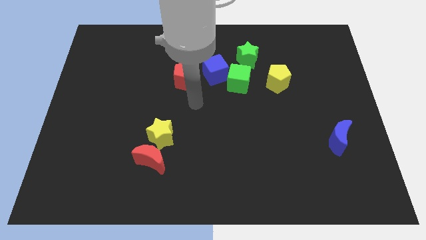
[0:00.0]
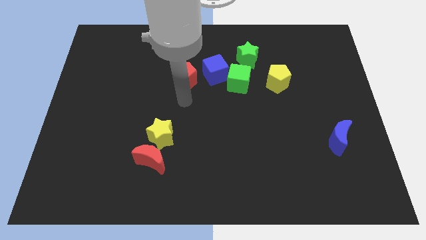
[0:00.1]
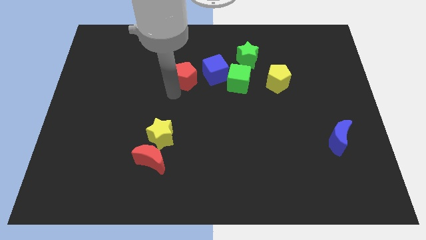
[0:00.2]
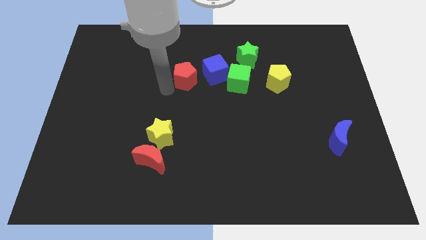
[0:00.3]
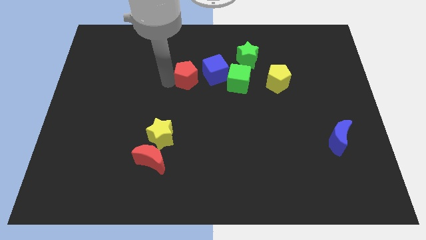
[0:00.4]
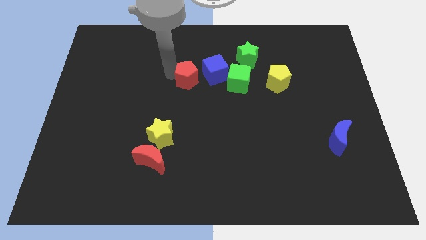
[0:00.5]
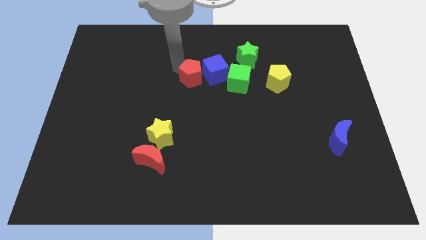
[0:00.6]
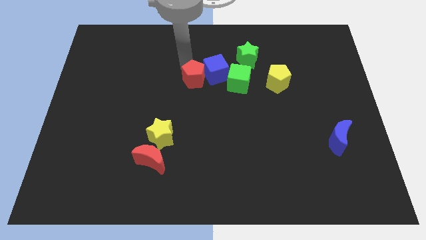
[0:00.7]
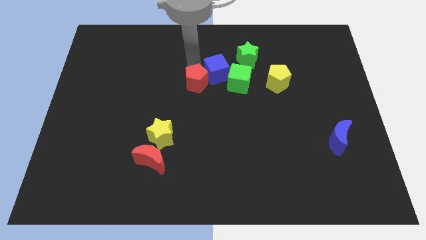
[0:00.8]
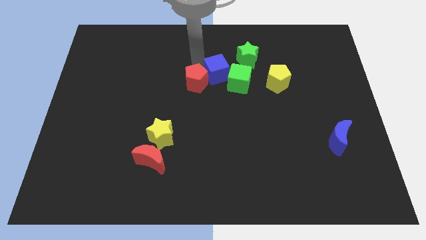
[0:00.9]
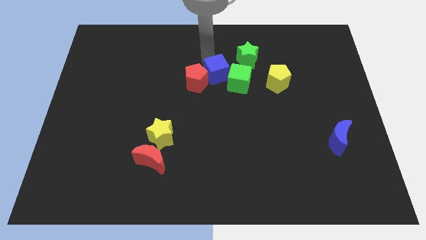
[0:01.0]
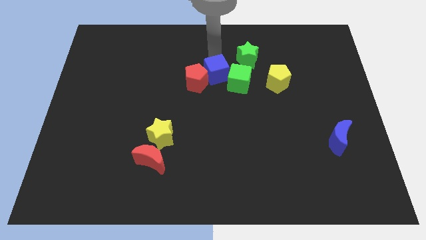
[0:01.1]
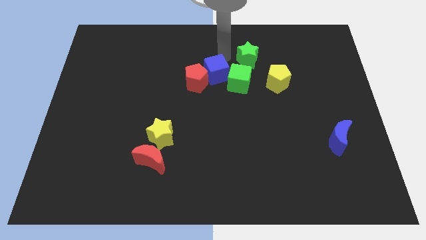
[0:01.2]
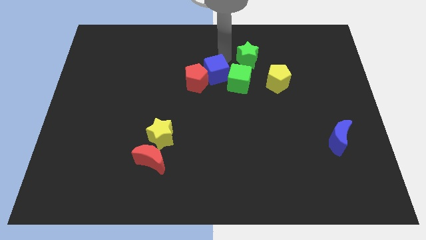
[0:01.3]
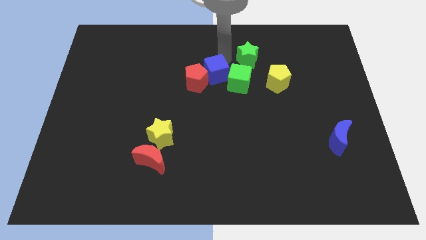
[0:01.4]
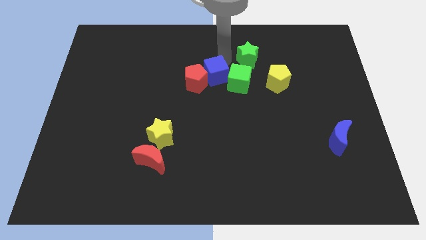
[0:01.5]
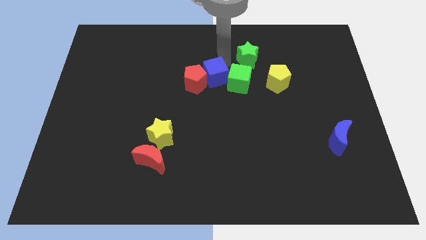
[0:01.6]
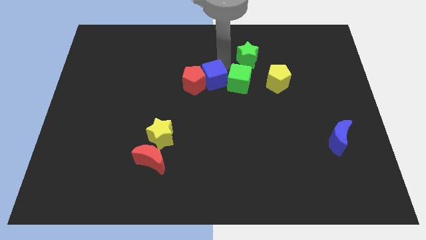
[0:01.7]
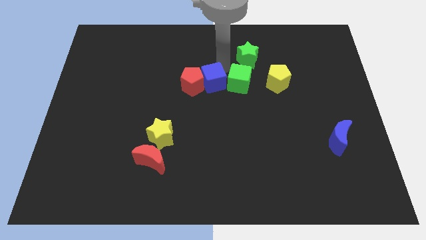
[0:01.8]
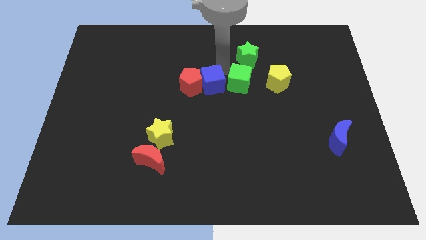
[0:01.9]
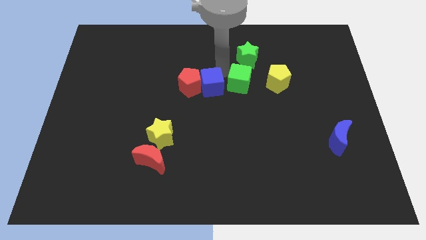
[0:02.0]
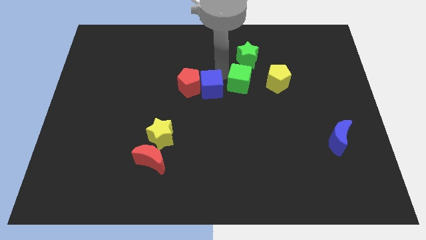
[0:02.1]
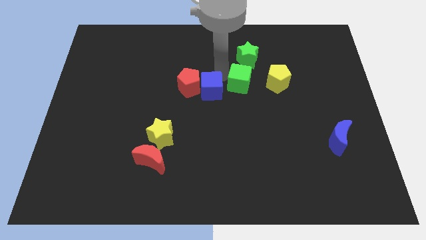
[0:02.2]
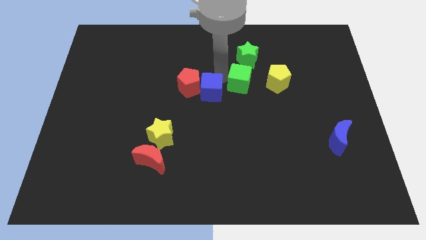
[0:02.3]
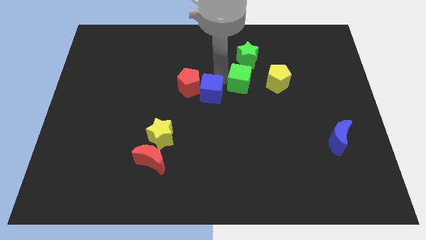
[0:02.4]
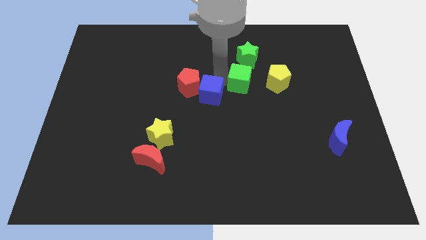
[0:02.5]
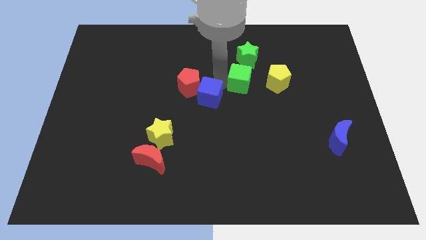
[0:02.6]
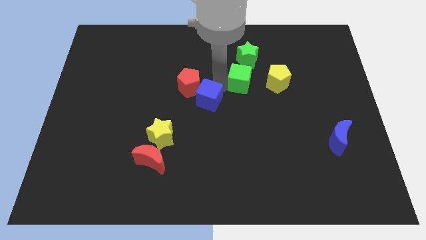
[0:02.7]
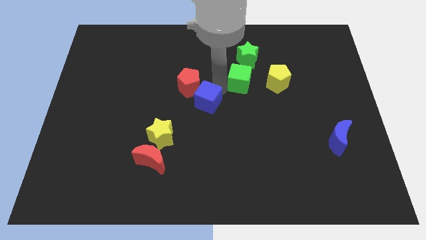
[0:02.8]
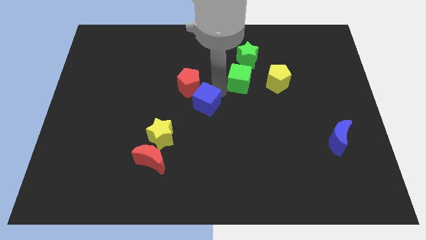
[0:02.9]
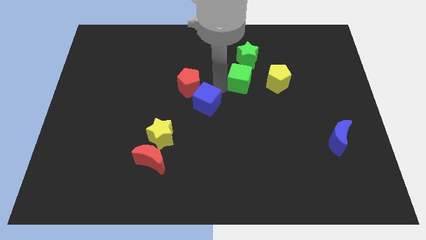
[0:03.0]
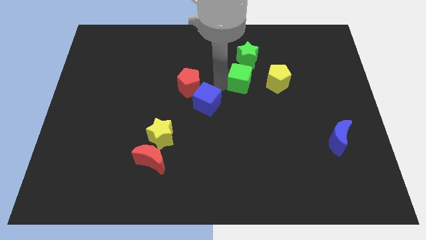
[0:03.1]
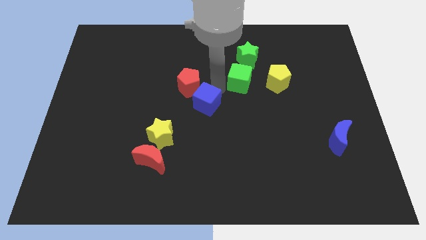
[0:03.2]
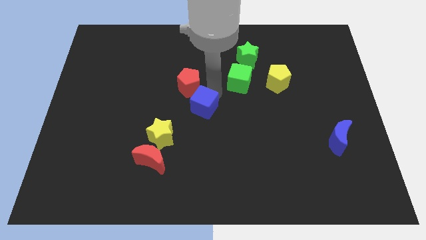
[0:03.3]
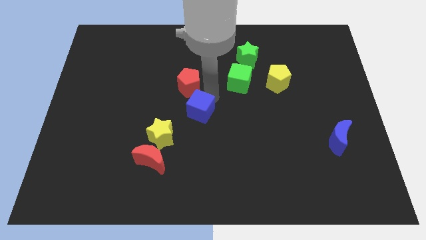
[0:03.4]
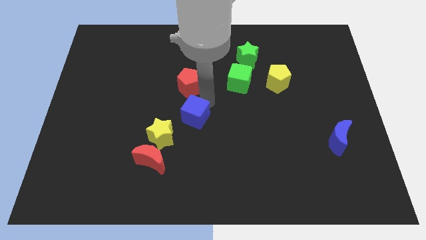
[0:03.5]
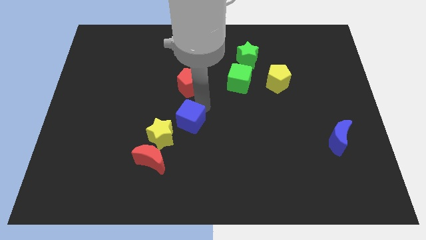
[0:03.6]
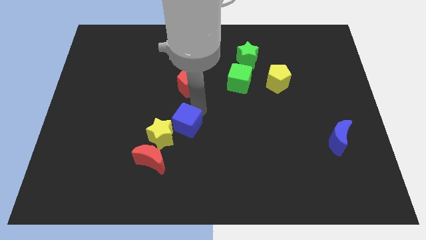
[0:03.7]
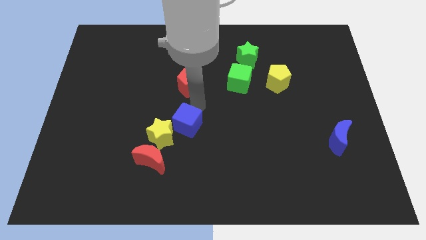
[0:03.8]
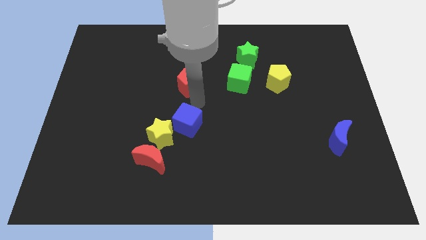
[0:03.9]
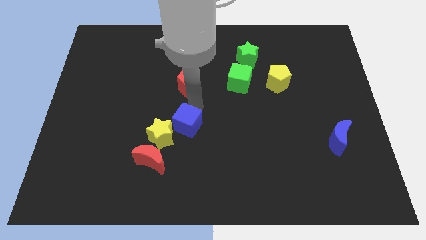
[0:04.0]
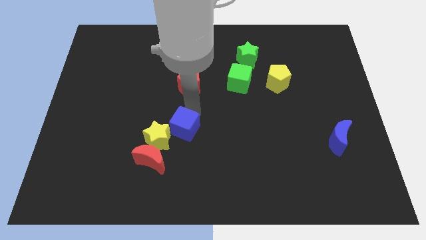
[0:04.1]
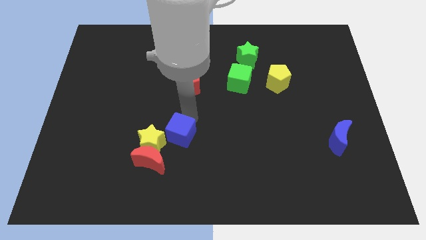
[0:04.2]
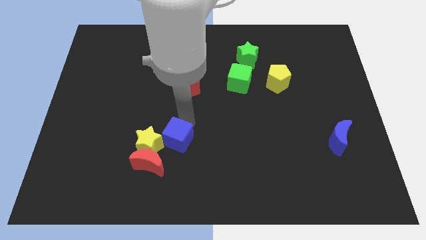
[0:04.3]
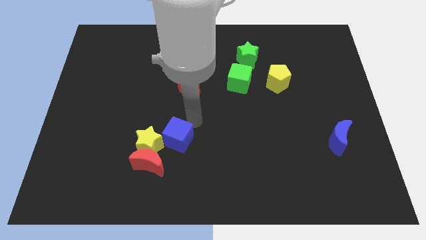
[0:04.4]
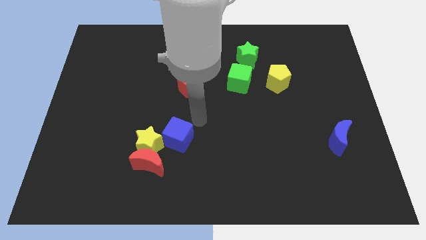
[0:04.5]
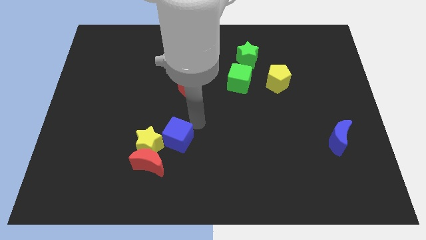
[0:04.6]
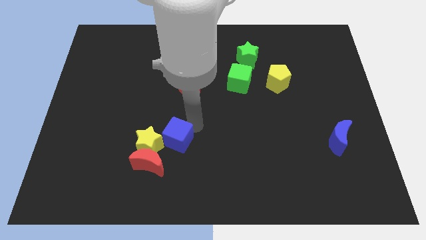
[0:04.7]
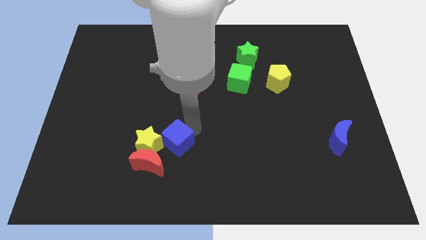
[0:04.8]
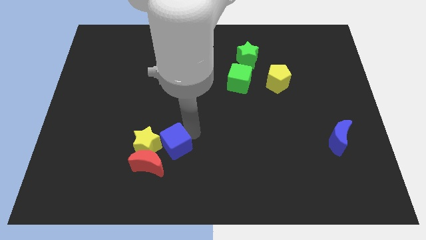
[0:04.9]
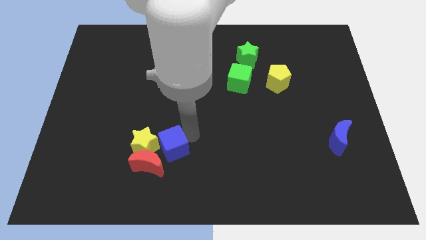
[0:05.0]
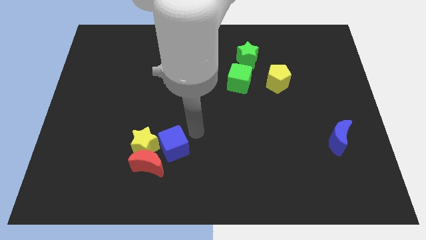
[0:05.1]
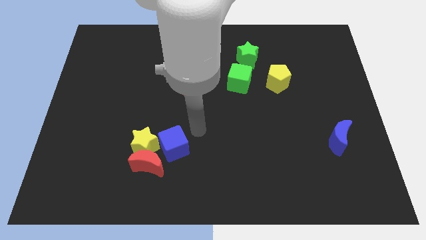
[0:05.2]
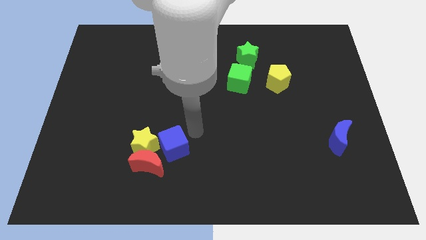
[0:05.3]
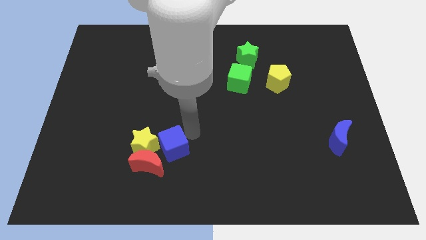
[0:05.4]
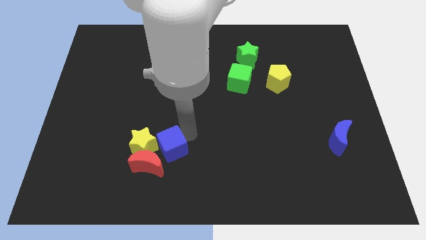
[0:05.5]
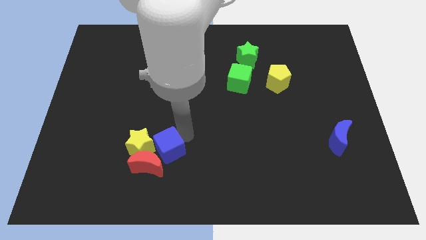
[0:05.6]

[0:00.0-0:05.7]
slide the blue cube next to the red moon

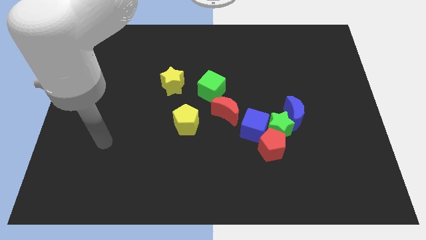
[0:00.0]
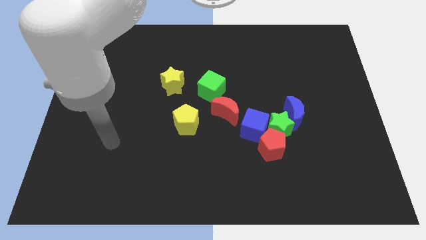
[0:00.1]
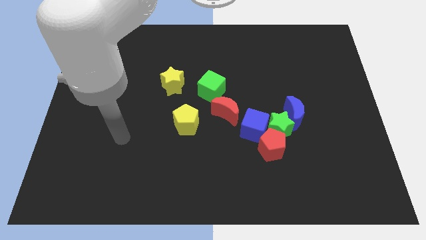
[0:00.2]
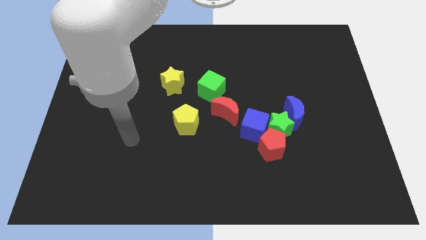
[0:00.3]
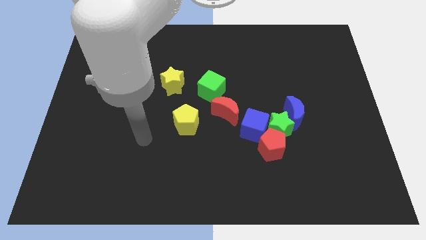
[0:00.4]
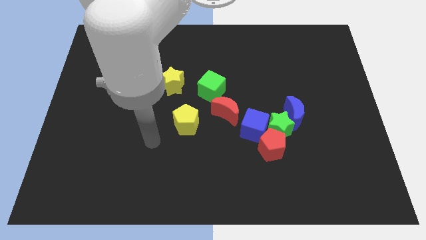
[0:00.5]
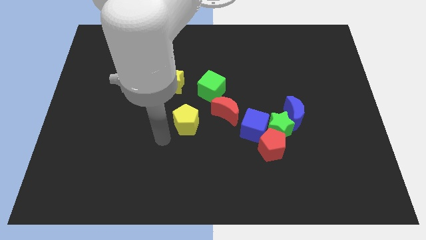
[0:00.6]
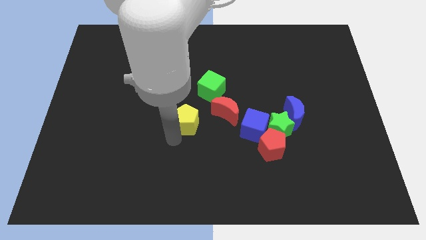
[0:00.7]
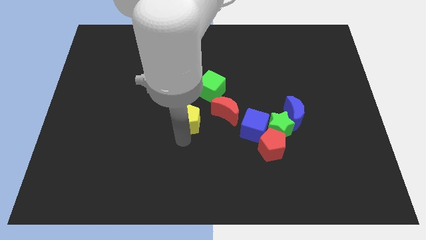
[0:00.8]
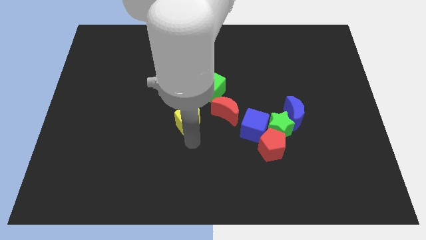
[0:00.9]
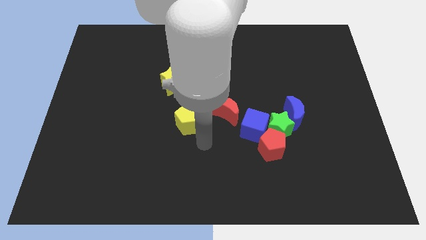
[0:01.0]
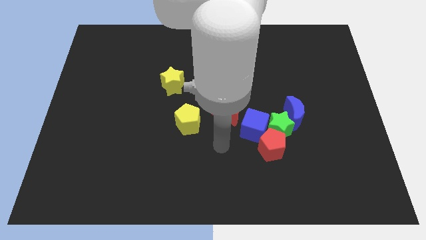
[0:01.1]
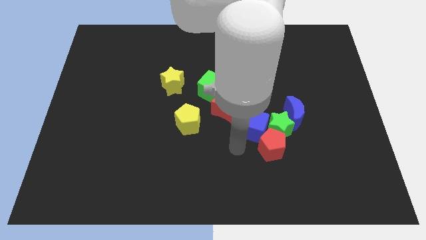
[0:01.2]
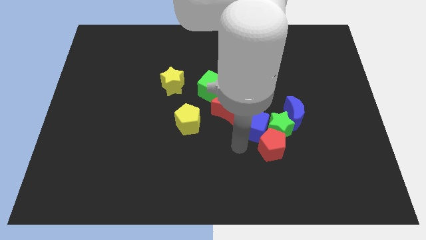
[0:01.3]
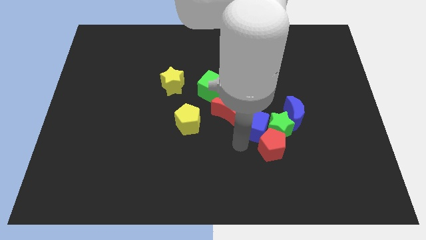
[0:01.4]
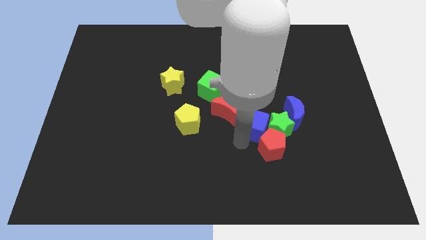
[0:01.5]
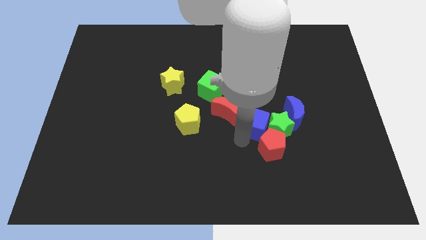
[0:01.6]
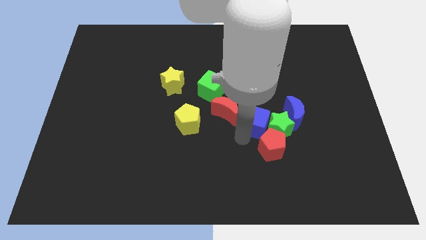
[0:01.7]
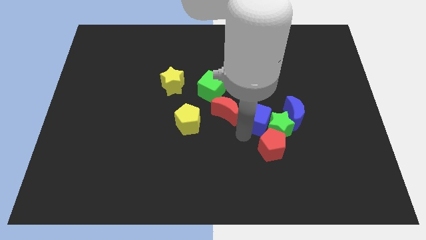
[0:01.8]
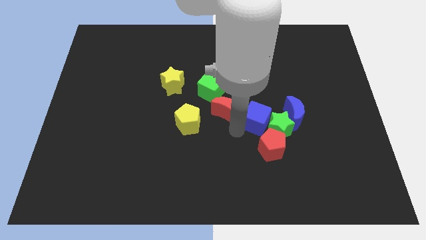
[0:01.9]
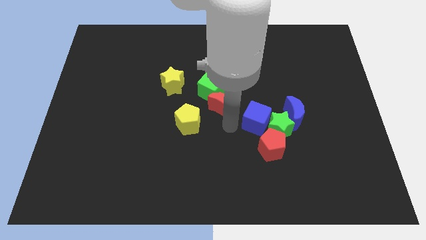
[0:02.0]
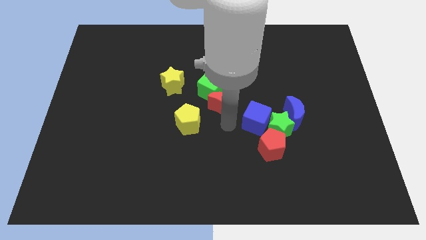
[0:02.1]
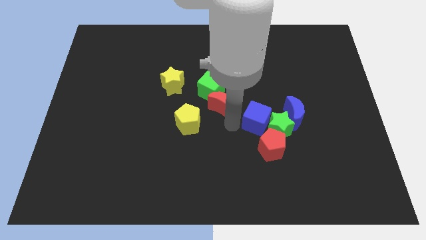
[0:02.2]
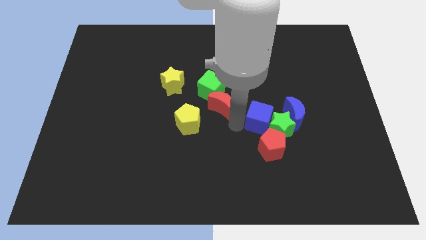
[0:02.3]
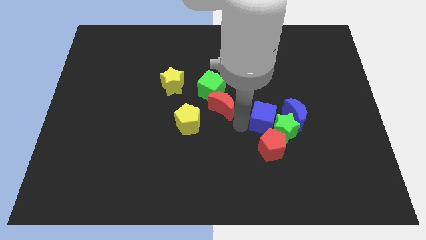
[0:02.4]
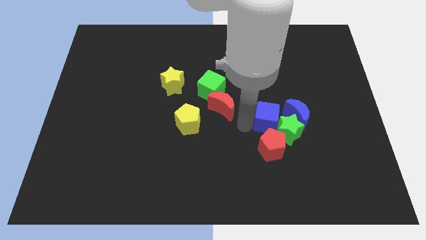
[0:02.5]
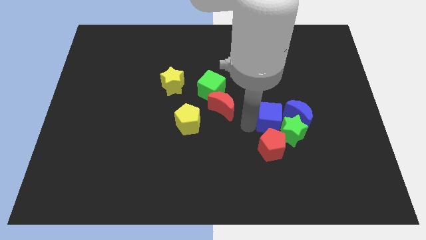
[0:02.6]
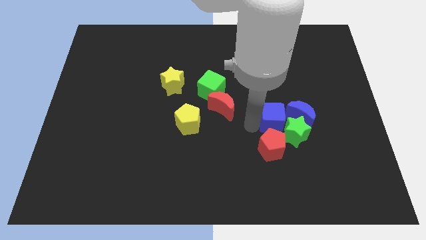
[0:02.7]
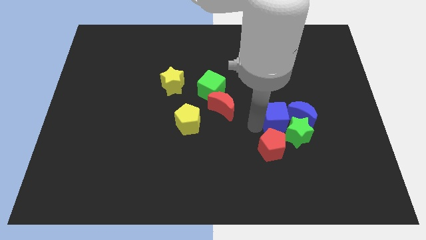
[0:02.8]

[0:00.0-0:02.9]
push the blue cube towards the blue moon
